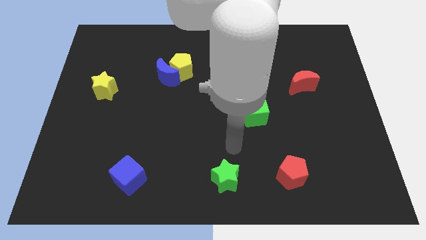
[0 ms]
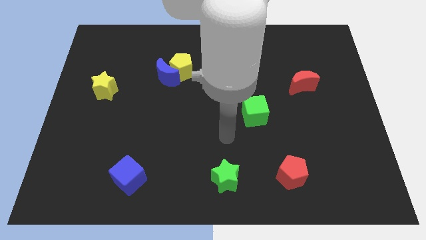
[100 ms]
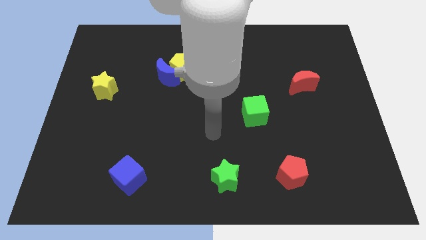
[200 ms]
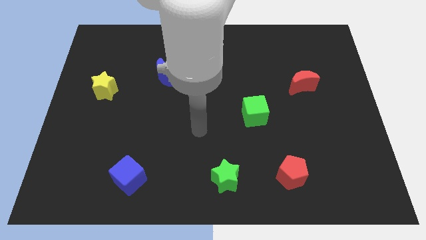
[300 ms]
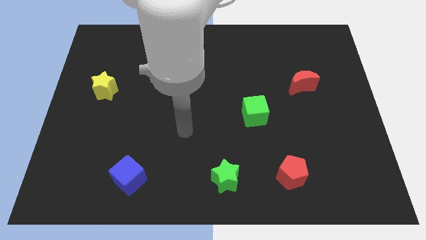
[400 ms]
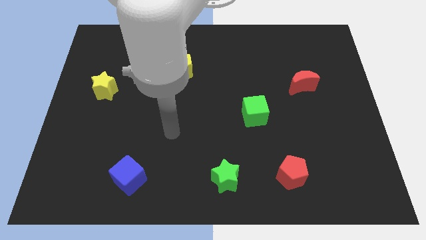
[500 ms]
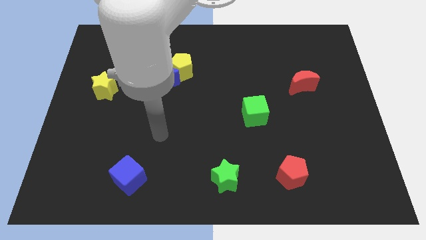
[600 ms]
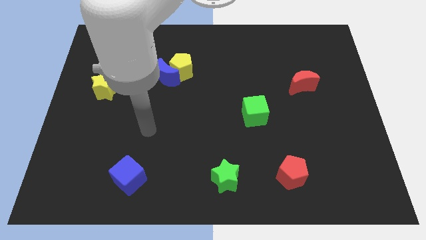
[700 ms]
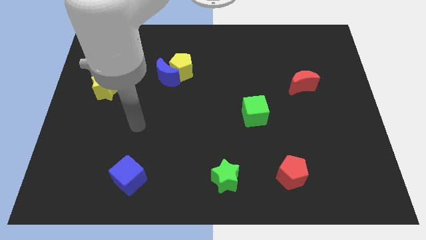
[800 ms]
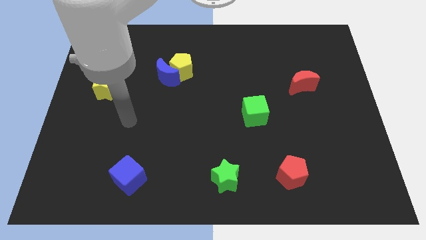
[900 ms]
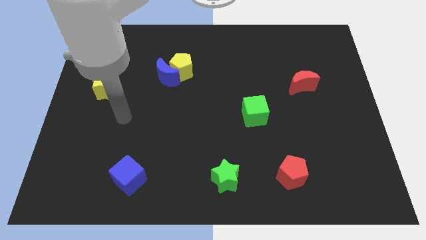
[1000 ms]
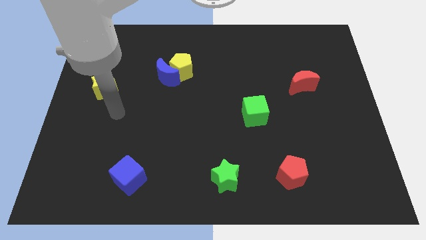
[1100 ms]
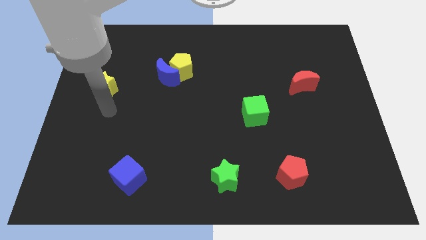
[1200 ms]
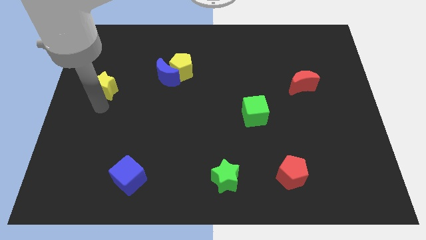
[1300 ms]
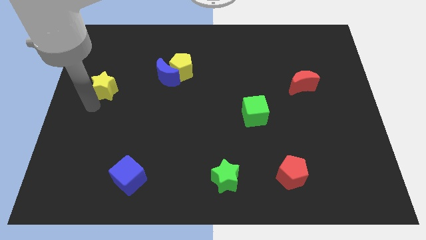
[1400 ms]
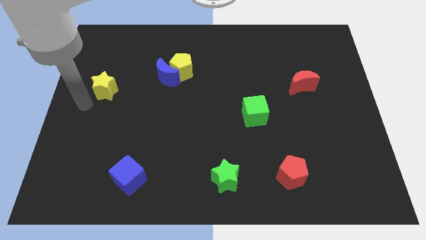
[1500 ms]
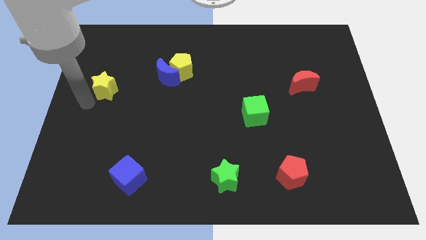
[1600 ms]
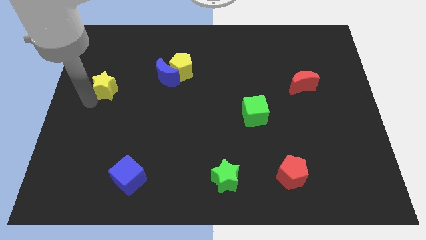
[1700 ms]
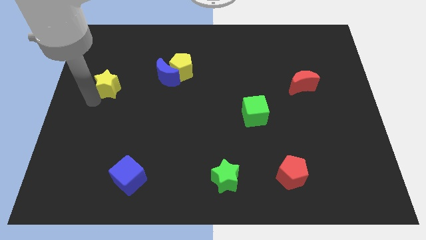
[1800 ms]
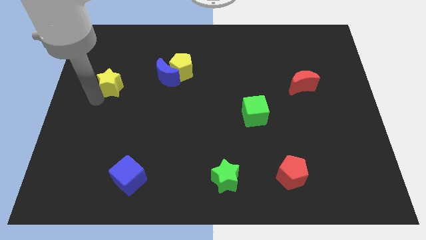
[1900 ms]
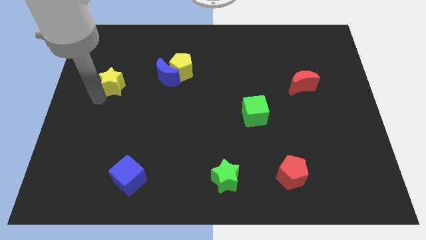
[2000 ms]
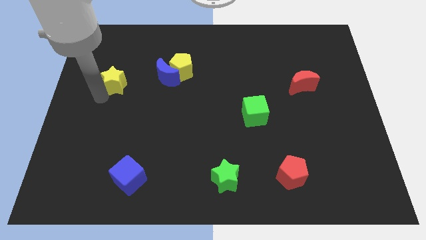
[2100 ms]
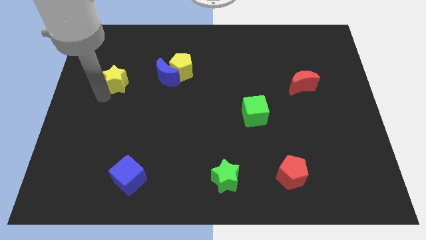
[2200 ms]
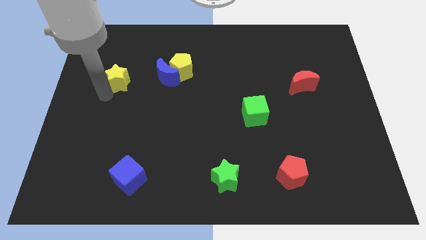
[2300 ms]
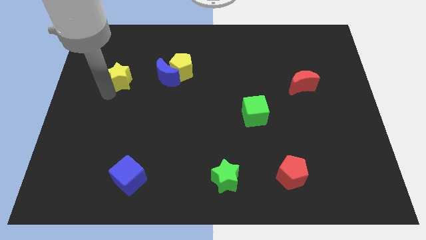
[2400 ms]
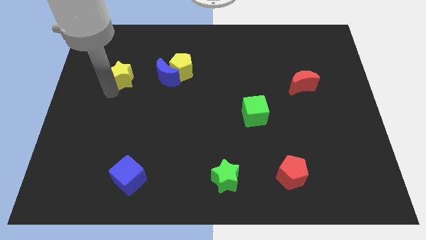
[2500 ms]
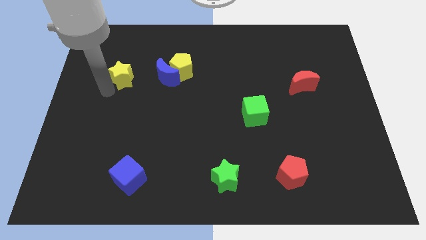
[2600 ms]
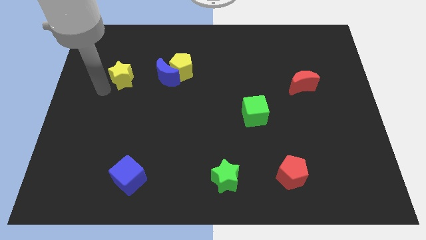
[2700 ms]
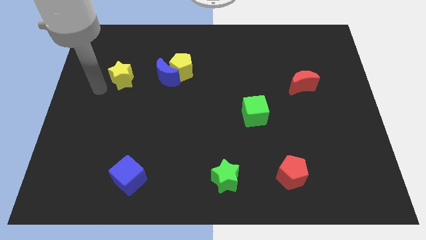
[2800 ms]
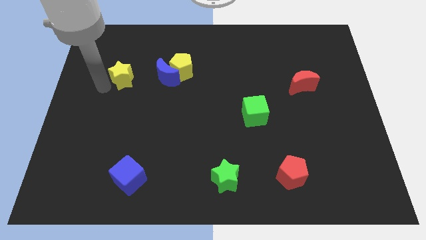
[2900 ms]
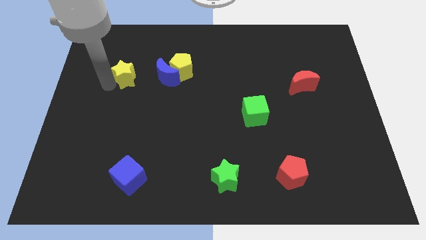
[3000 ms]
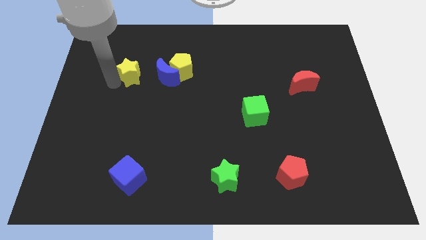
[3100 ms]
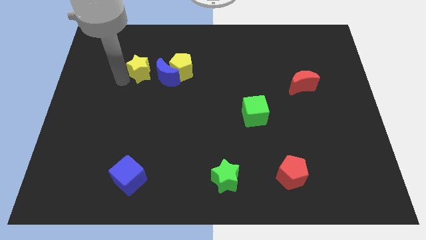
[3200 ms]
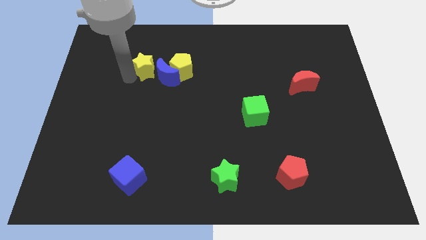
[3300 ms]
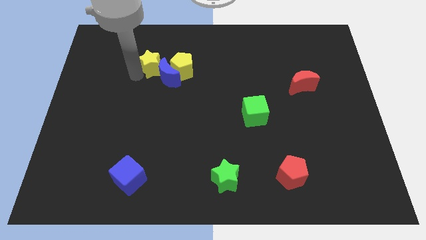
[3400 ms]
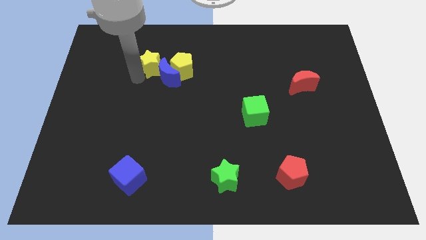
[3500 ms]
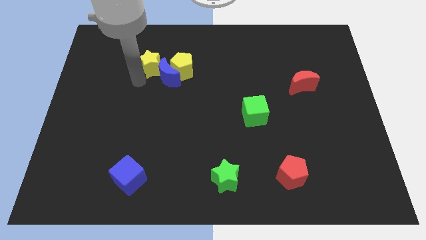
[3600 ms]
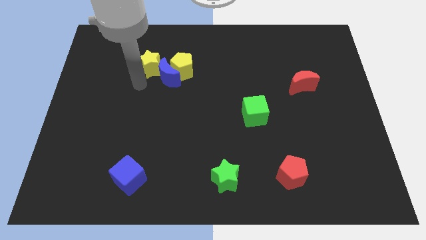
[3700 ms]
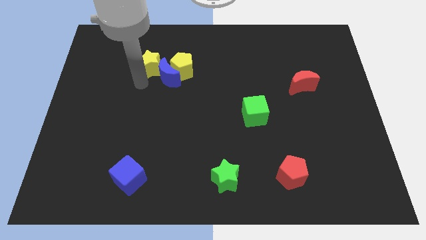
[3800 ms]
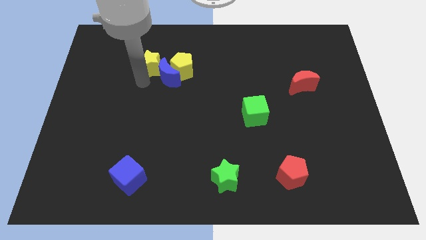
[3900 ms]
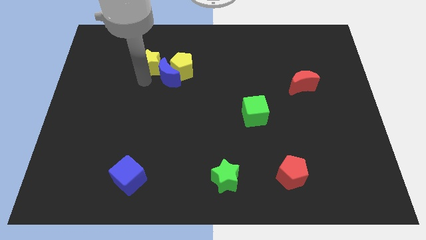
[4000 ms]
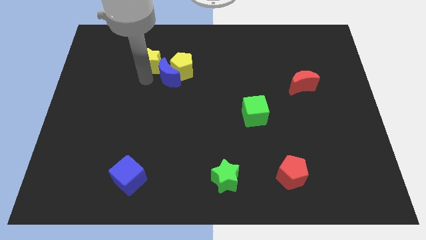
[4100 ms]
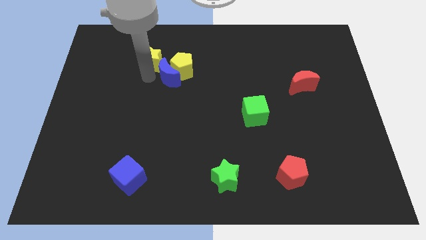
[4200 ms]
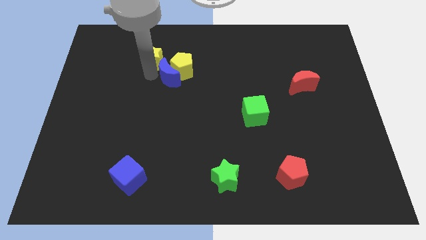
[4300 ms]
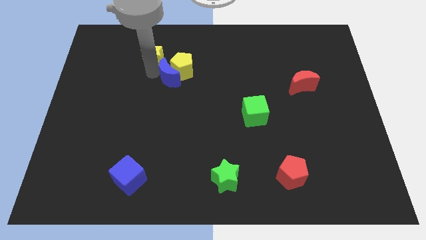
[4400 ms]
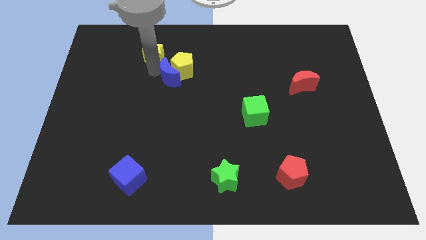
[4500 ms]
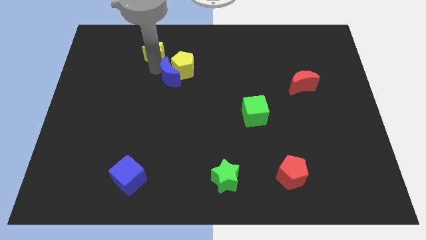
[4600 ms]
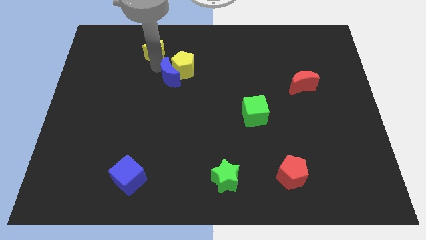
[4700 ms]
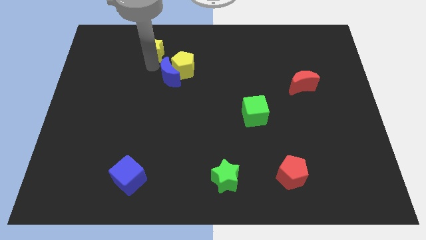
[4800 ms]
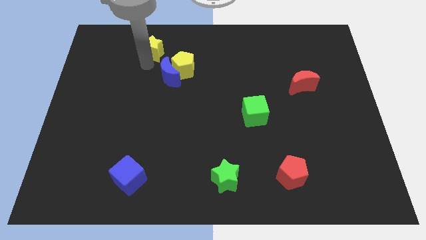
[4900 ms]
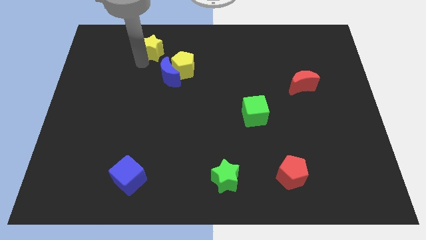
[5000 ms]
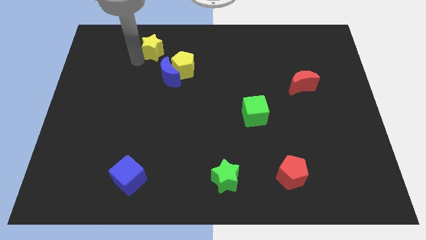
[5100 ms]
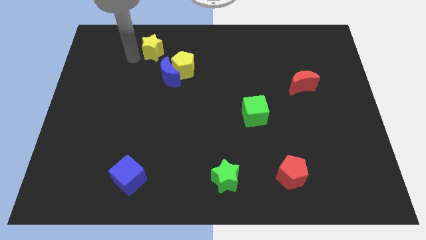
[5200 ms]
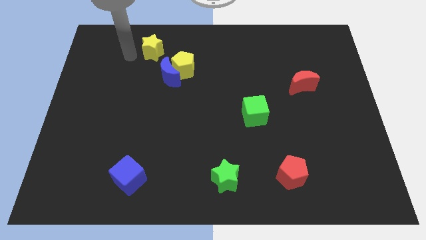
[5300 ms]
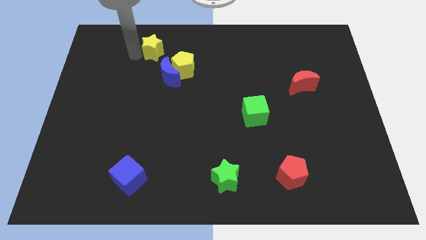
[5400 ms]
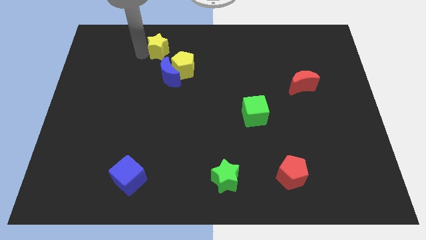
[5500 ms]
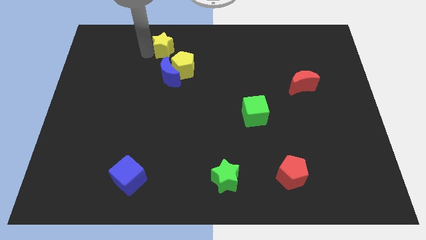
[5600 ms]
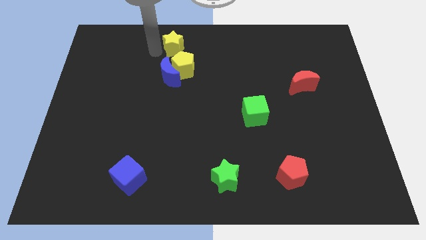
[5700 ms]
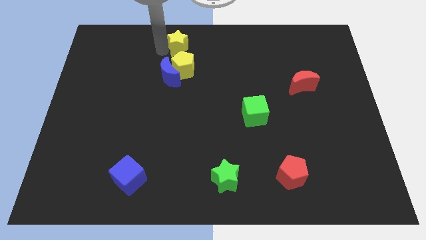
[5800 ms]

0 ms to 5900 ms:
put the yellow star to the top

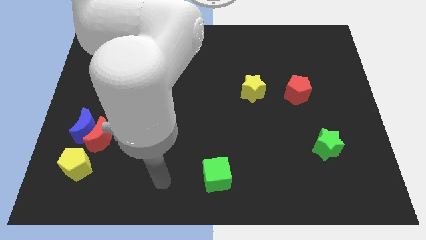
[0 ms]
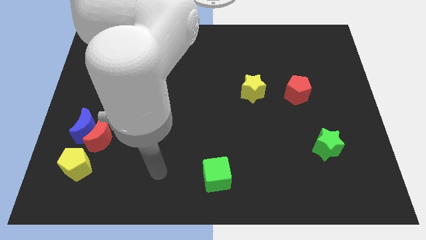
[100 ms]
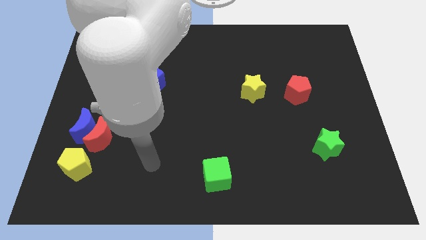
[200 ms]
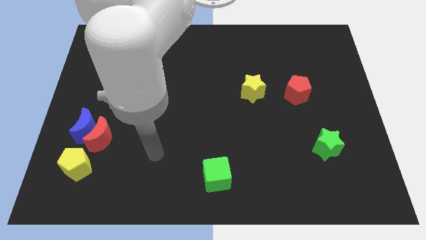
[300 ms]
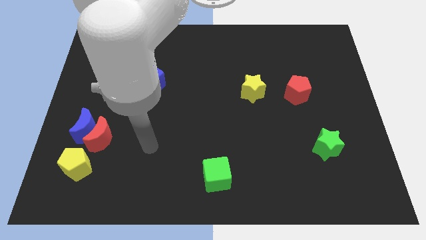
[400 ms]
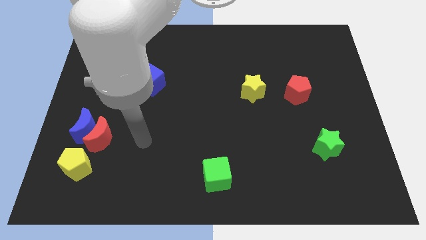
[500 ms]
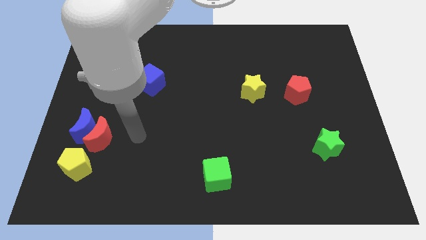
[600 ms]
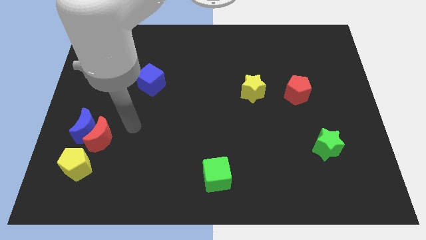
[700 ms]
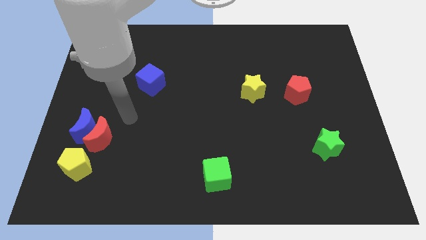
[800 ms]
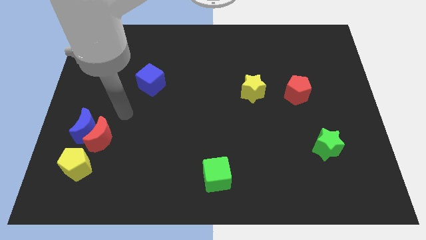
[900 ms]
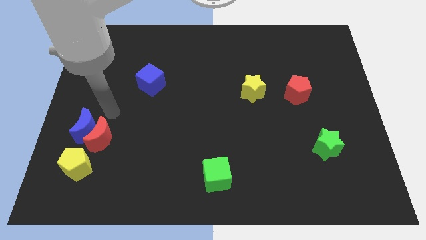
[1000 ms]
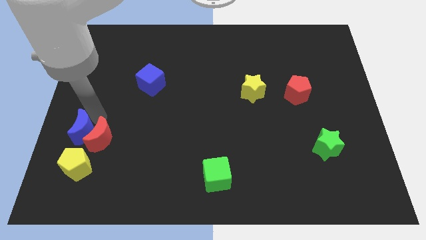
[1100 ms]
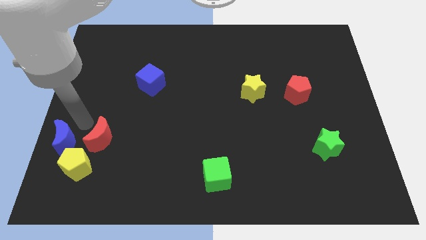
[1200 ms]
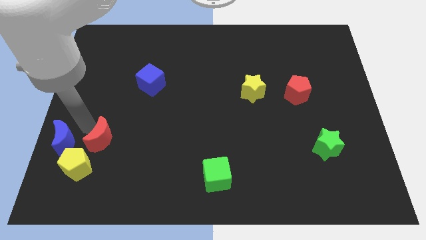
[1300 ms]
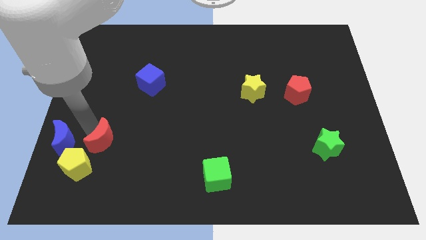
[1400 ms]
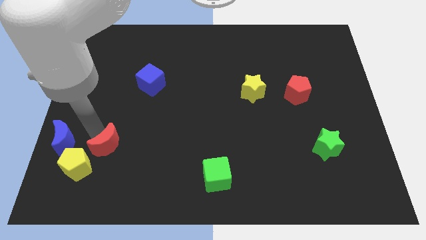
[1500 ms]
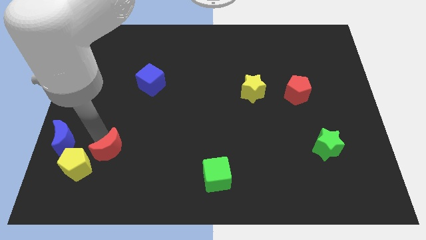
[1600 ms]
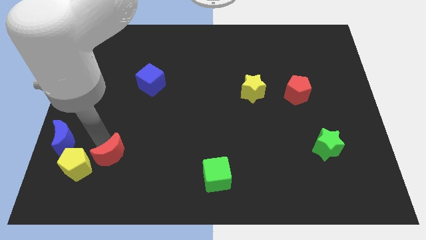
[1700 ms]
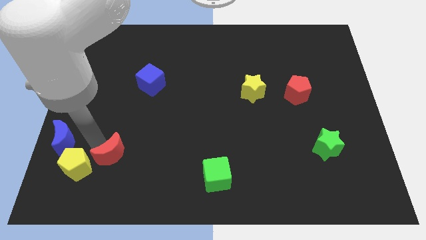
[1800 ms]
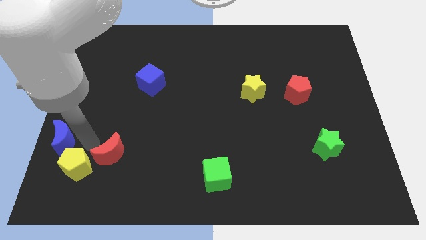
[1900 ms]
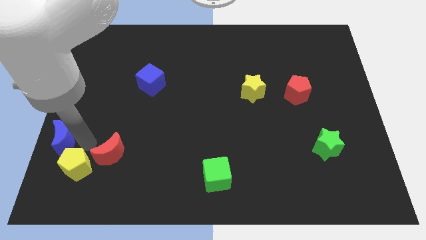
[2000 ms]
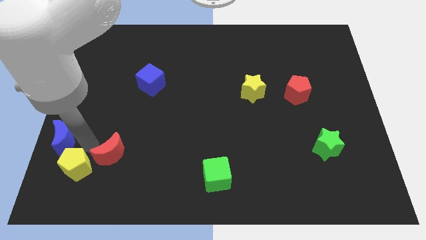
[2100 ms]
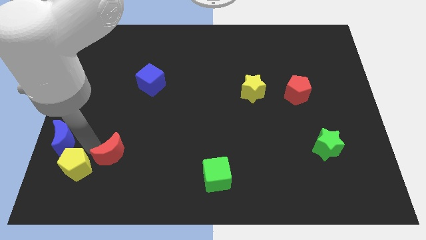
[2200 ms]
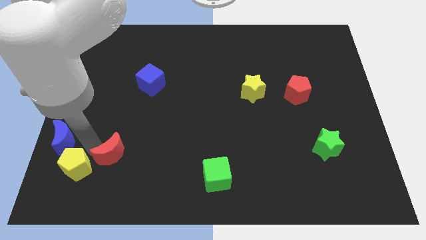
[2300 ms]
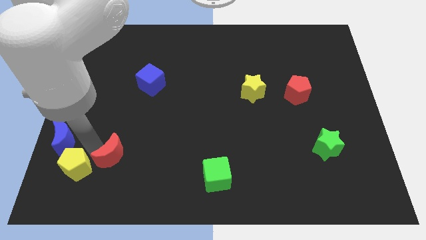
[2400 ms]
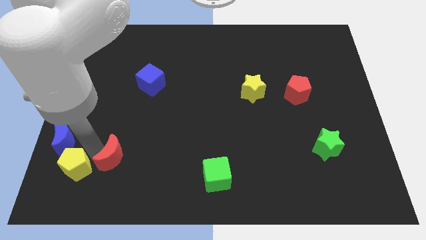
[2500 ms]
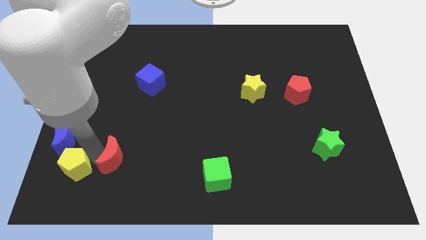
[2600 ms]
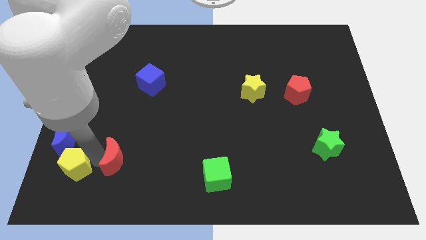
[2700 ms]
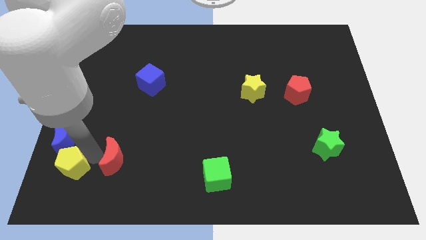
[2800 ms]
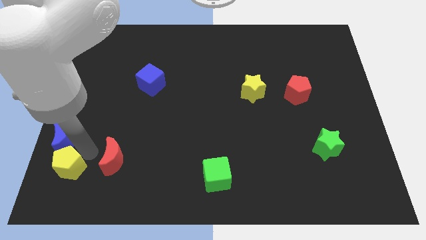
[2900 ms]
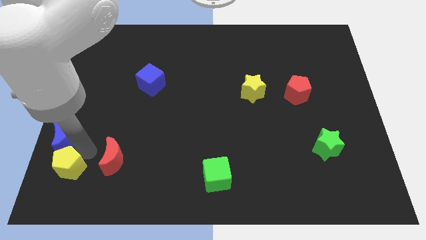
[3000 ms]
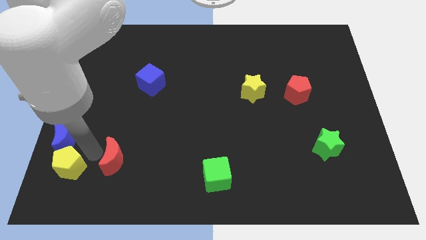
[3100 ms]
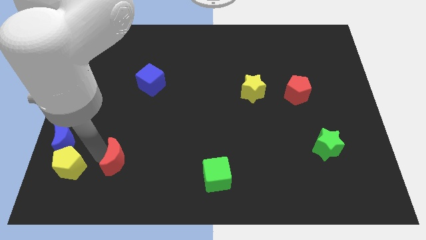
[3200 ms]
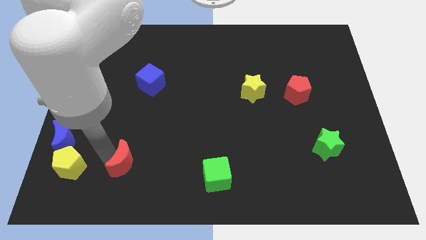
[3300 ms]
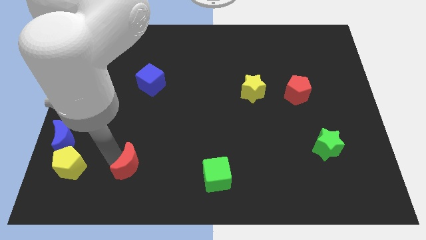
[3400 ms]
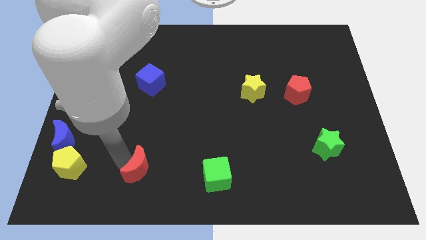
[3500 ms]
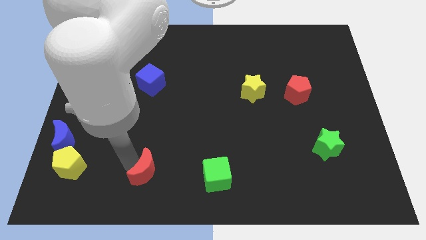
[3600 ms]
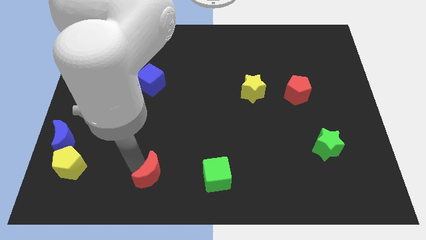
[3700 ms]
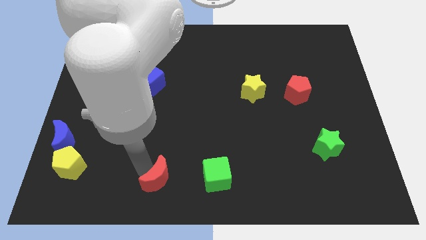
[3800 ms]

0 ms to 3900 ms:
push the red moon to the bottom
